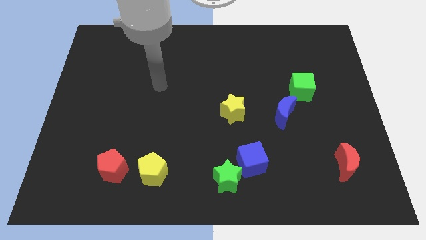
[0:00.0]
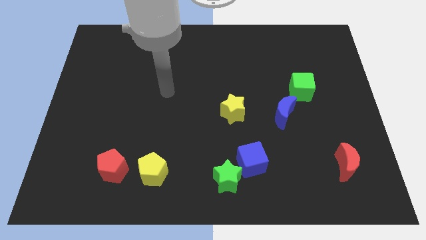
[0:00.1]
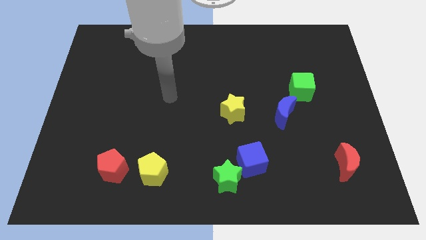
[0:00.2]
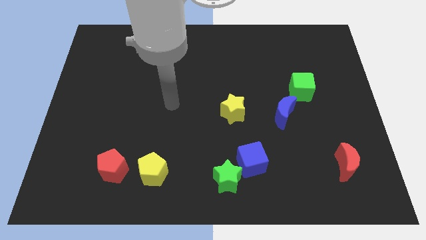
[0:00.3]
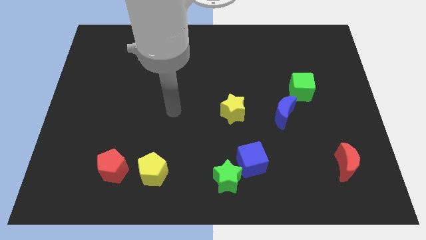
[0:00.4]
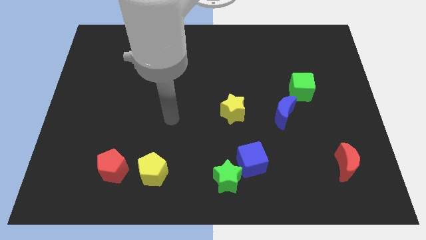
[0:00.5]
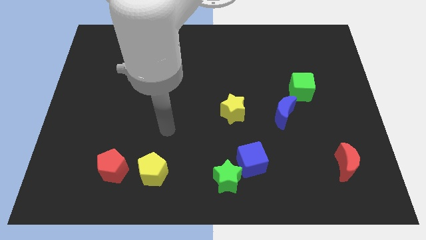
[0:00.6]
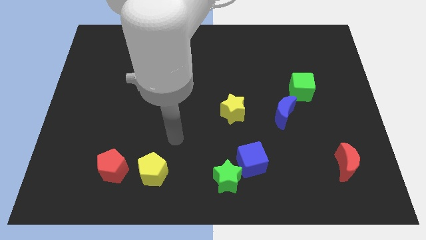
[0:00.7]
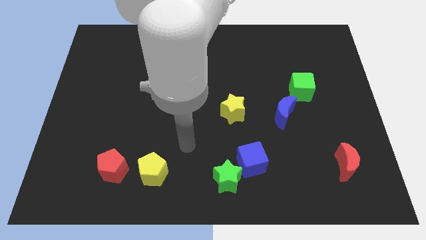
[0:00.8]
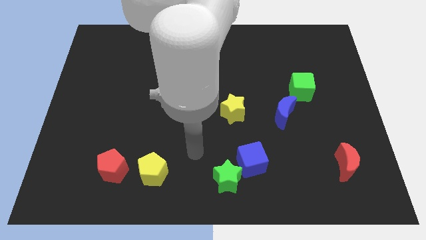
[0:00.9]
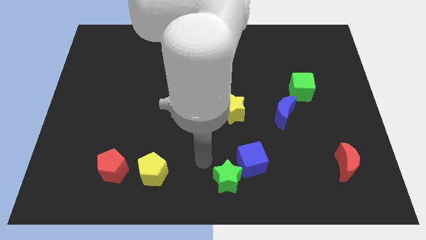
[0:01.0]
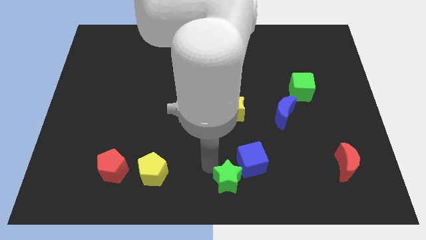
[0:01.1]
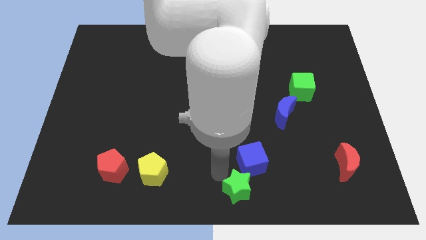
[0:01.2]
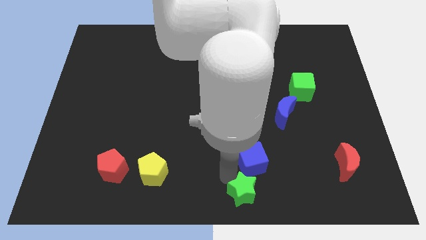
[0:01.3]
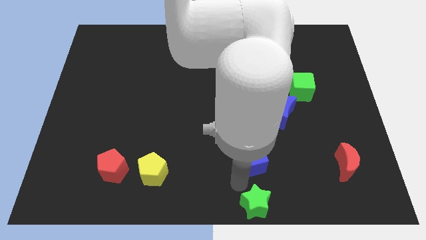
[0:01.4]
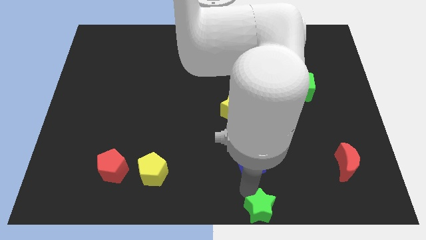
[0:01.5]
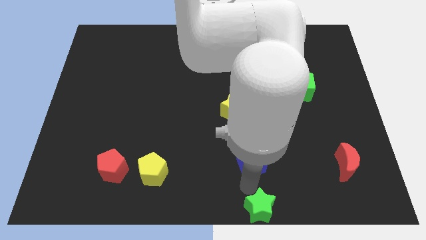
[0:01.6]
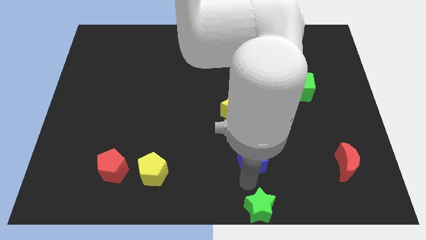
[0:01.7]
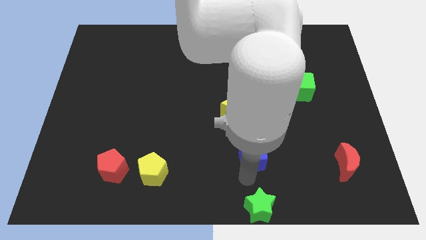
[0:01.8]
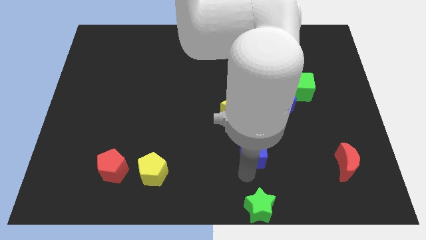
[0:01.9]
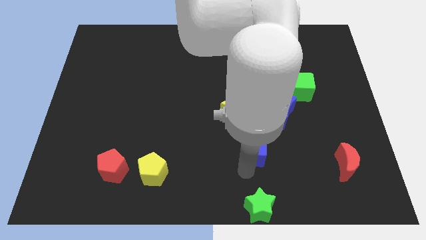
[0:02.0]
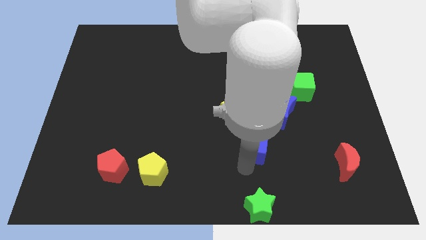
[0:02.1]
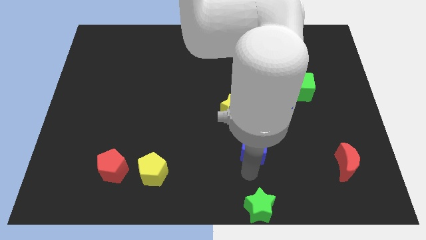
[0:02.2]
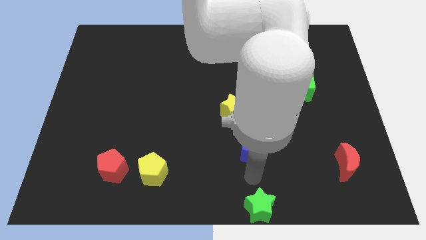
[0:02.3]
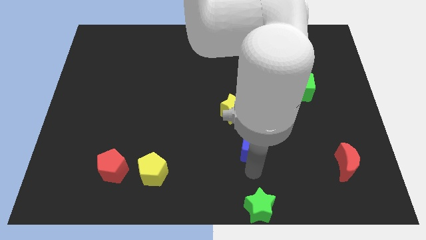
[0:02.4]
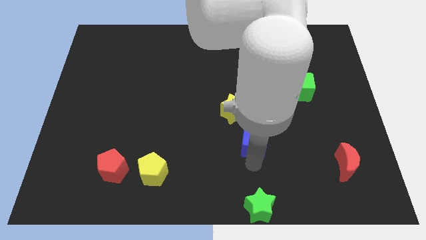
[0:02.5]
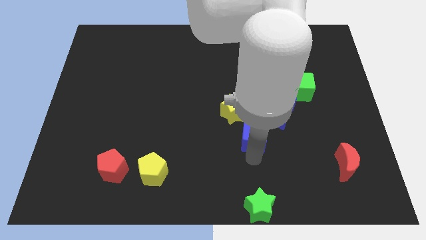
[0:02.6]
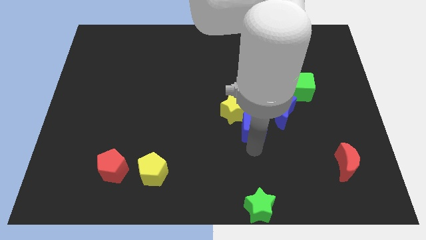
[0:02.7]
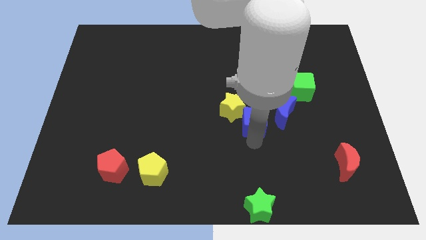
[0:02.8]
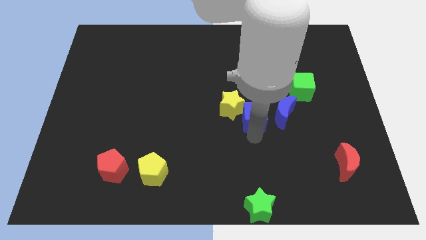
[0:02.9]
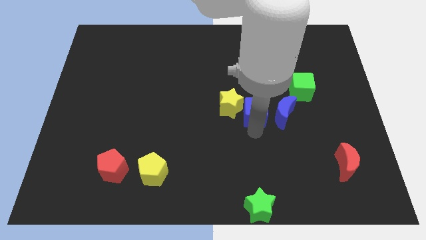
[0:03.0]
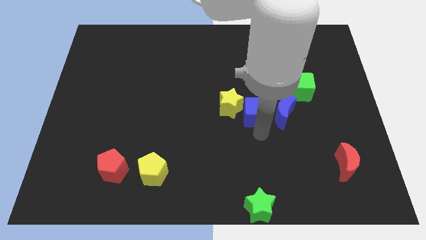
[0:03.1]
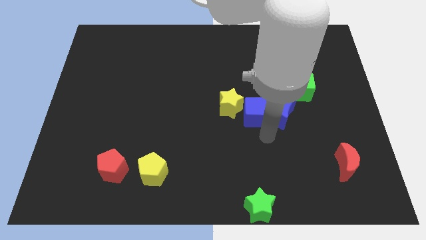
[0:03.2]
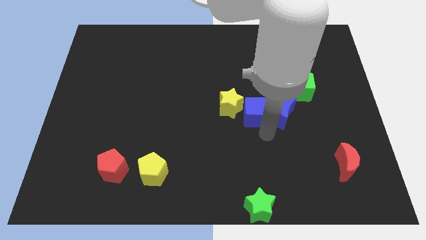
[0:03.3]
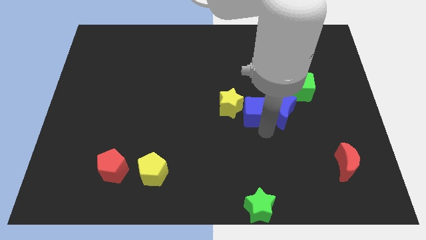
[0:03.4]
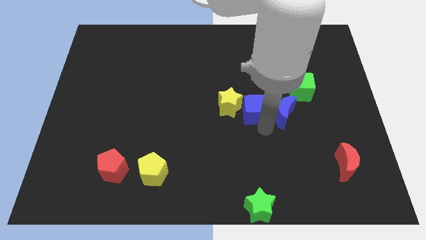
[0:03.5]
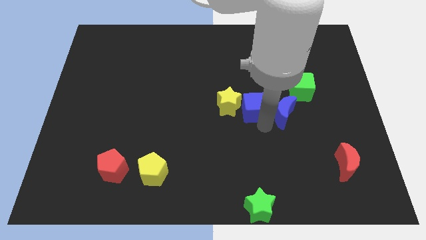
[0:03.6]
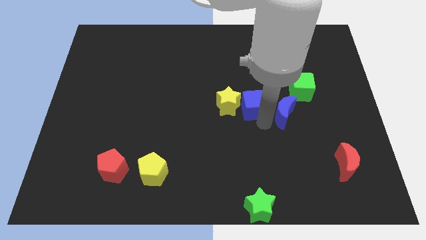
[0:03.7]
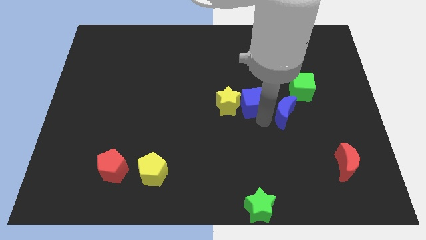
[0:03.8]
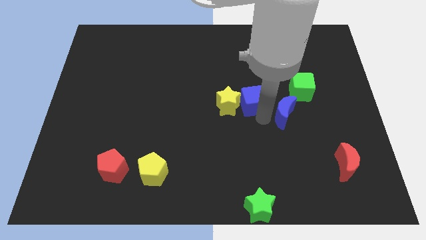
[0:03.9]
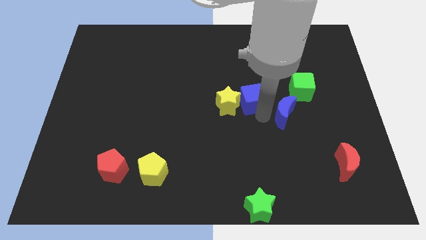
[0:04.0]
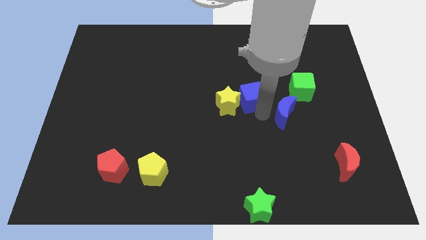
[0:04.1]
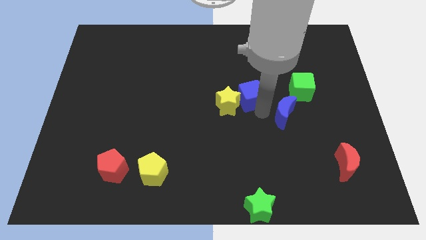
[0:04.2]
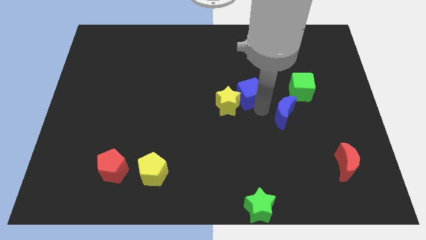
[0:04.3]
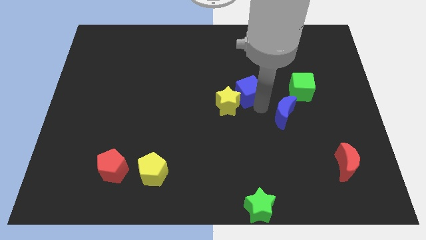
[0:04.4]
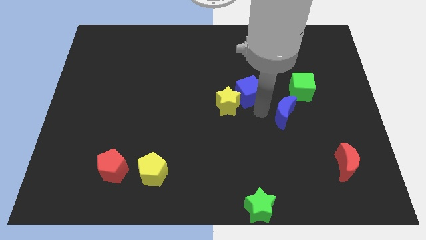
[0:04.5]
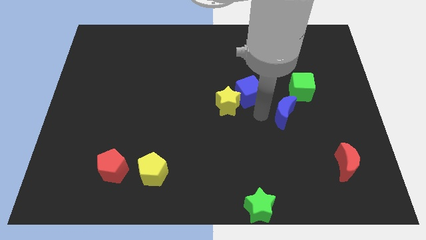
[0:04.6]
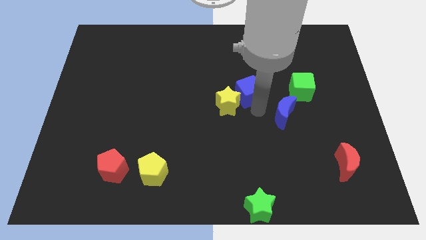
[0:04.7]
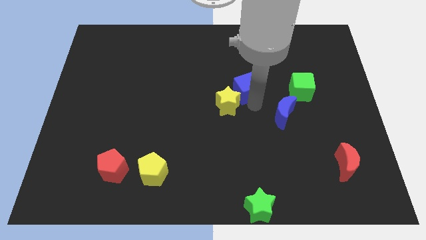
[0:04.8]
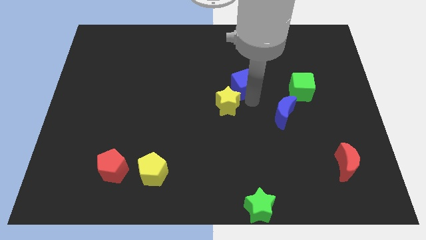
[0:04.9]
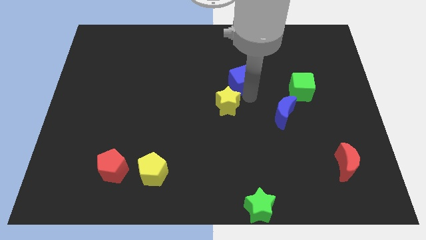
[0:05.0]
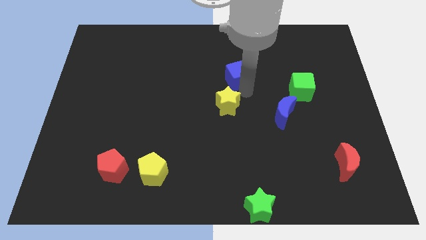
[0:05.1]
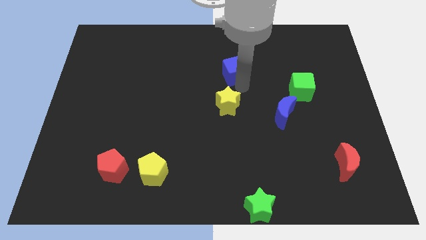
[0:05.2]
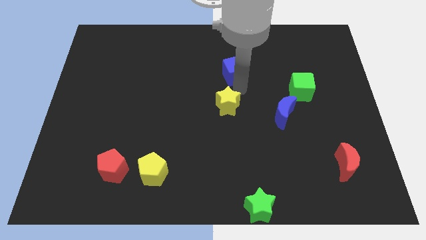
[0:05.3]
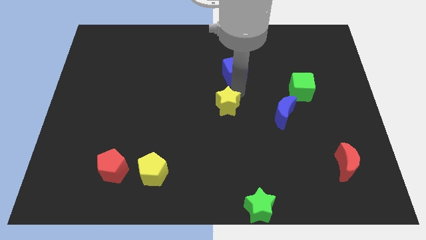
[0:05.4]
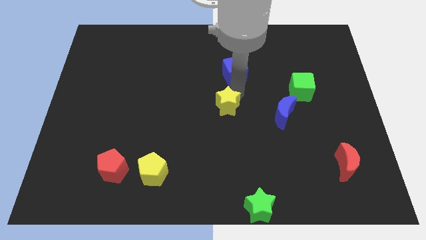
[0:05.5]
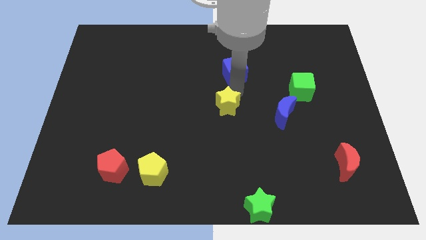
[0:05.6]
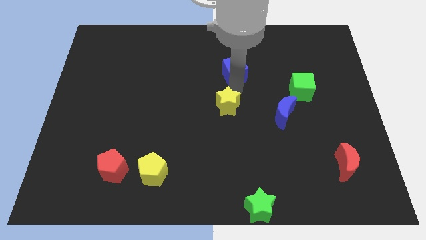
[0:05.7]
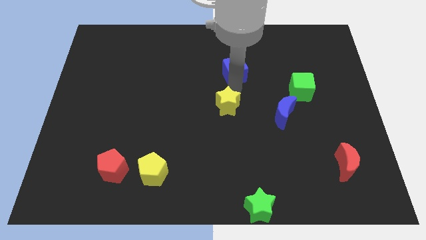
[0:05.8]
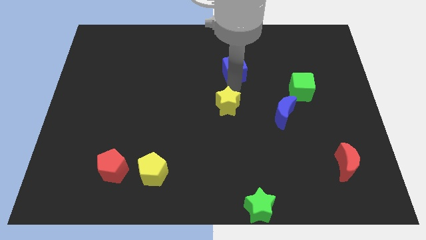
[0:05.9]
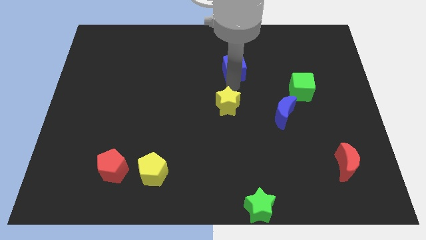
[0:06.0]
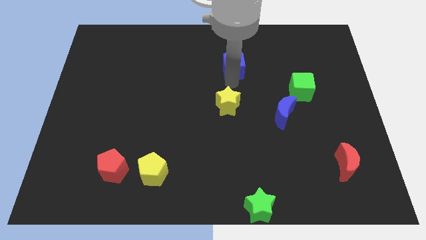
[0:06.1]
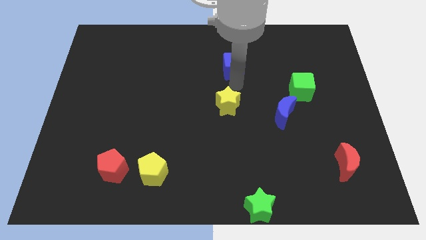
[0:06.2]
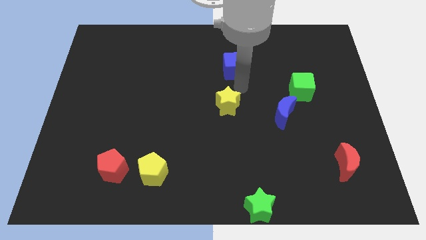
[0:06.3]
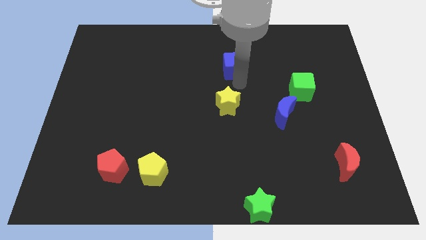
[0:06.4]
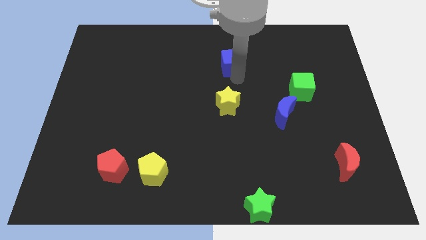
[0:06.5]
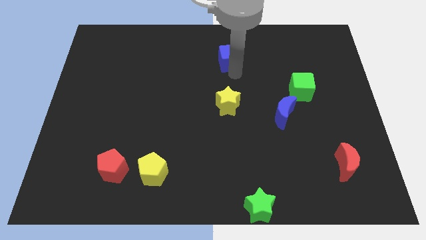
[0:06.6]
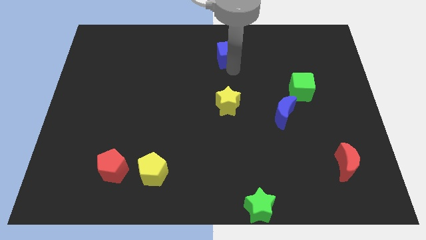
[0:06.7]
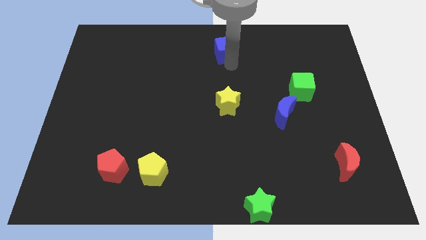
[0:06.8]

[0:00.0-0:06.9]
move the blue cube to the top

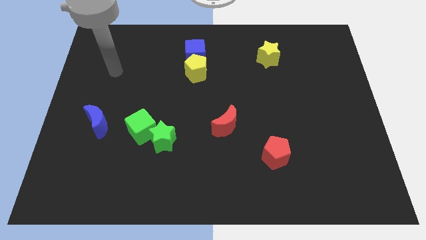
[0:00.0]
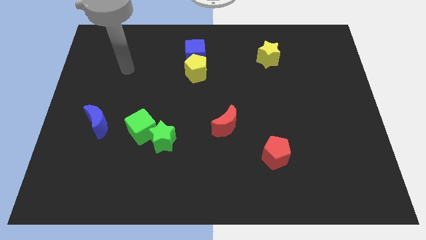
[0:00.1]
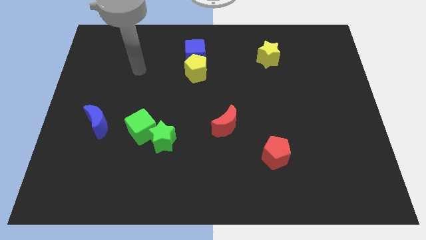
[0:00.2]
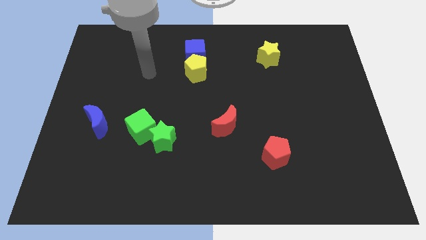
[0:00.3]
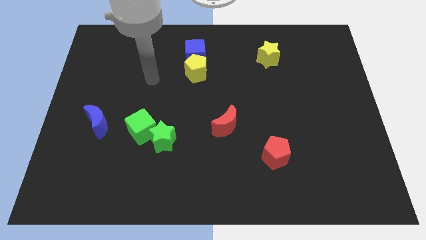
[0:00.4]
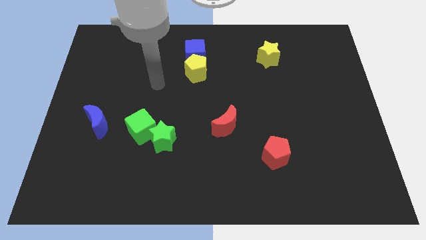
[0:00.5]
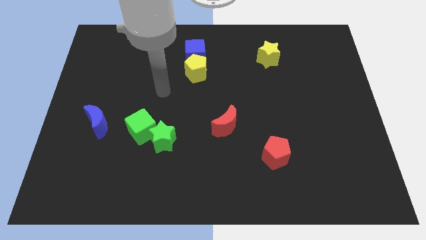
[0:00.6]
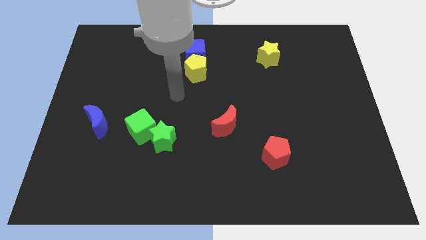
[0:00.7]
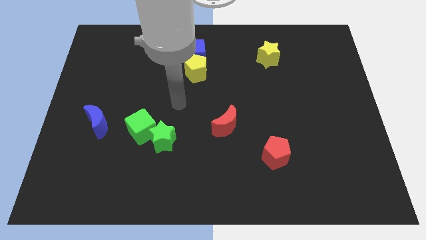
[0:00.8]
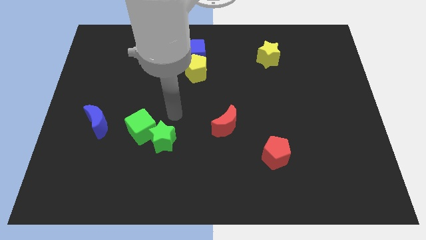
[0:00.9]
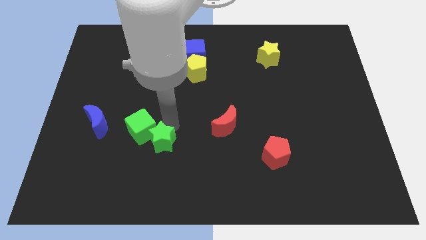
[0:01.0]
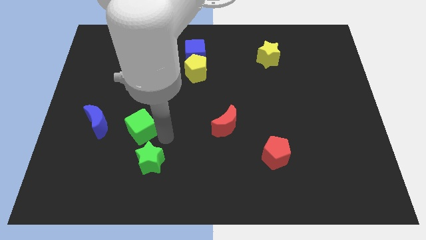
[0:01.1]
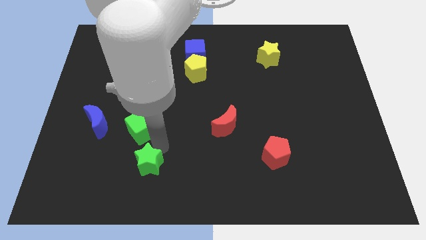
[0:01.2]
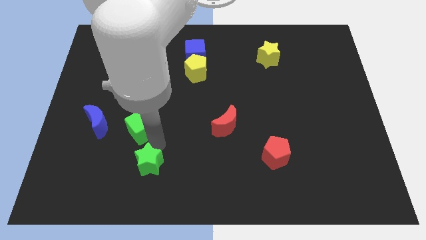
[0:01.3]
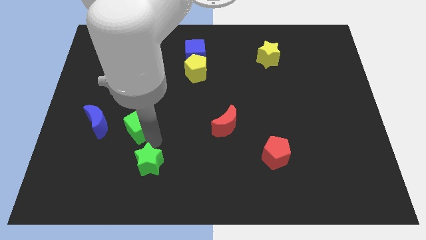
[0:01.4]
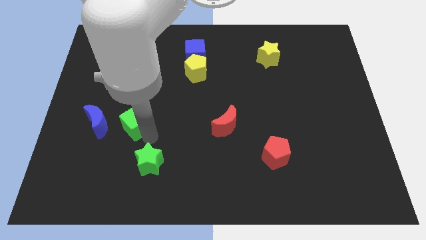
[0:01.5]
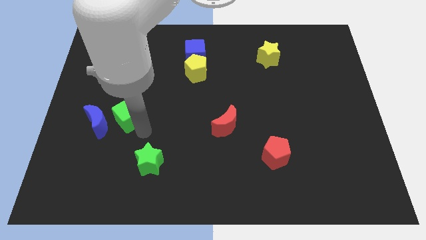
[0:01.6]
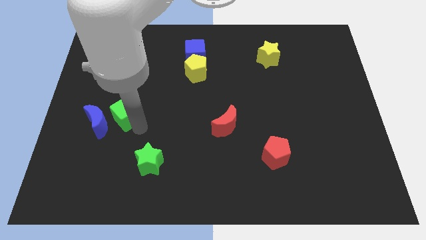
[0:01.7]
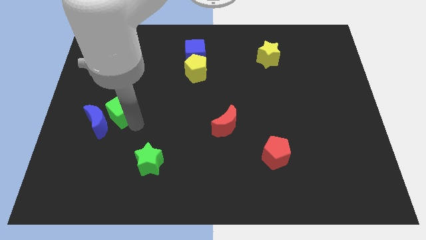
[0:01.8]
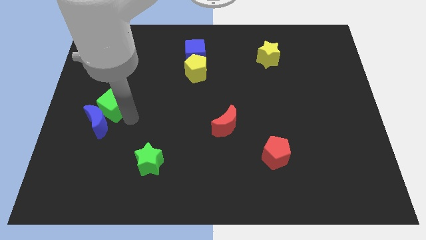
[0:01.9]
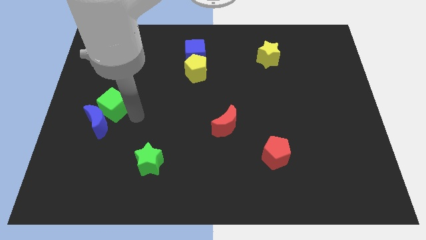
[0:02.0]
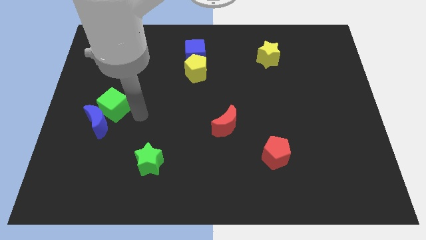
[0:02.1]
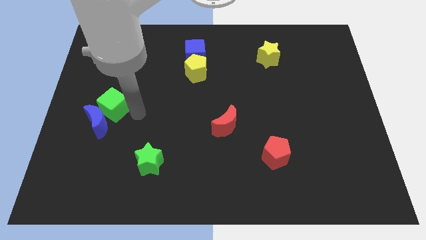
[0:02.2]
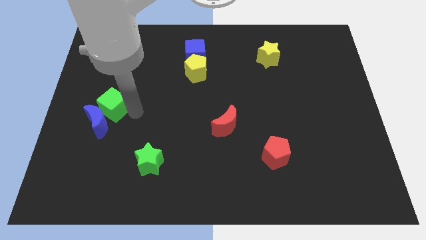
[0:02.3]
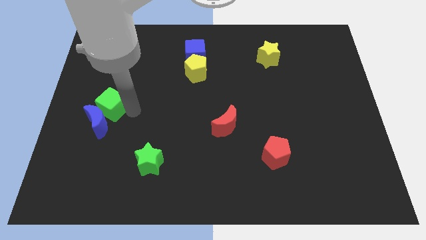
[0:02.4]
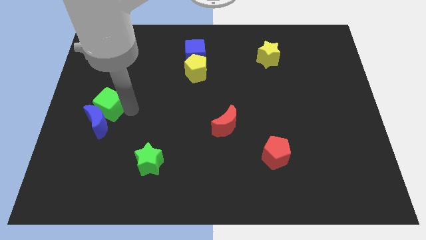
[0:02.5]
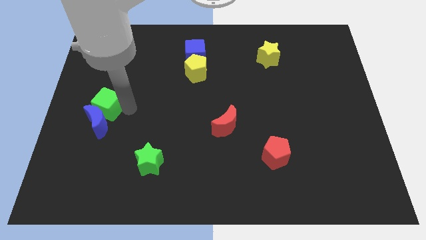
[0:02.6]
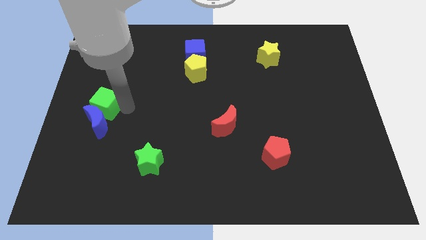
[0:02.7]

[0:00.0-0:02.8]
move the green cube to the left side
